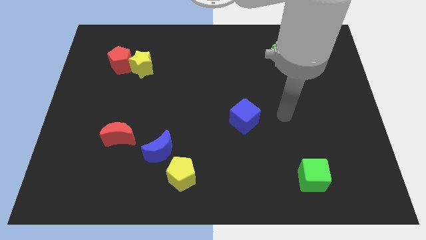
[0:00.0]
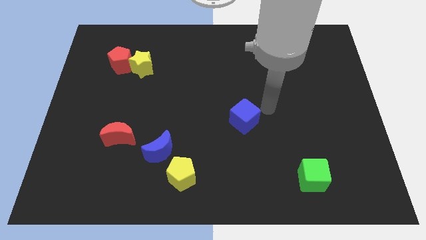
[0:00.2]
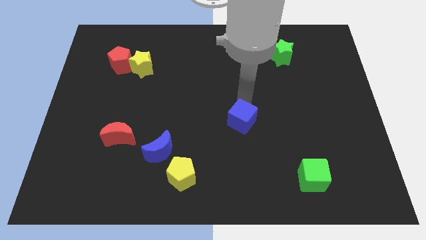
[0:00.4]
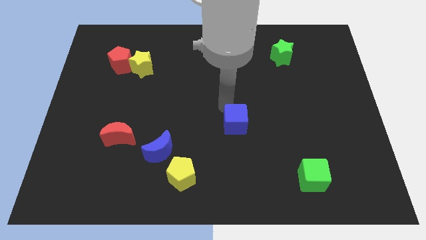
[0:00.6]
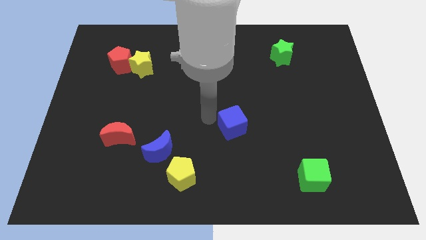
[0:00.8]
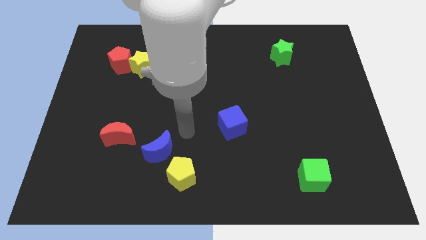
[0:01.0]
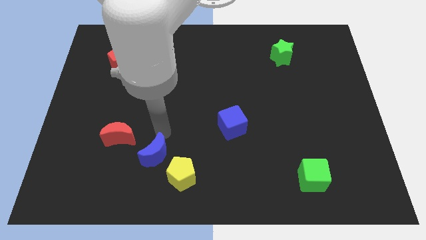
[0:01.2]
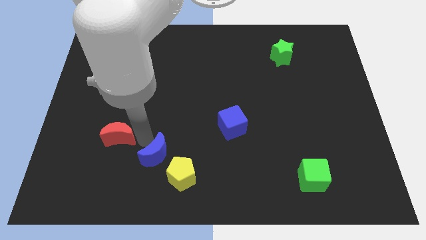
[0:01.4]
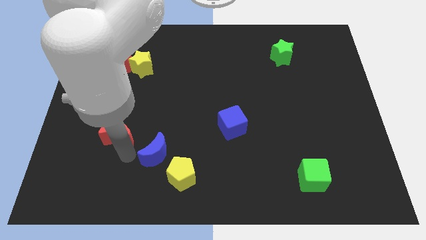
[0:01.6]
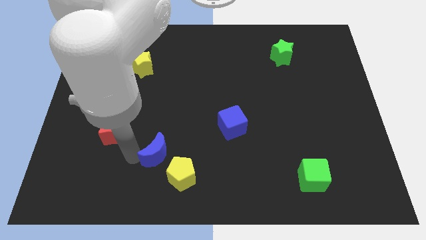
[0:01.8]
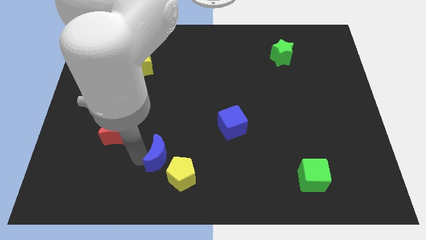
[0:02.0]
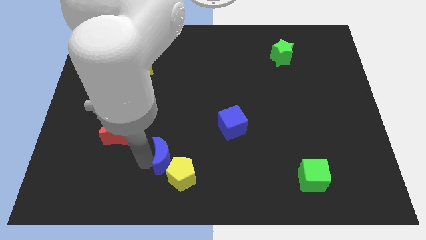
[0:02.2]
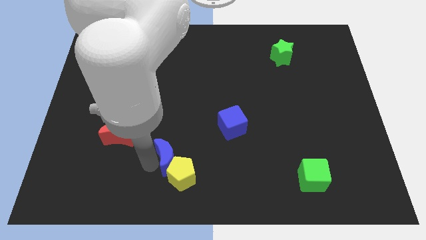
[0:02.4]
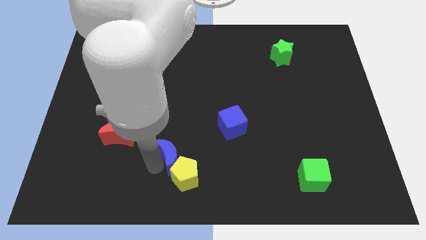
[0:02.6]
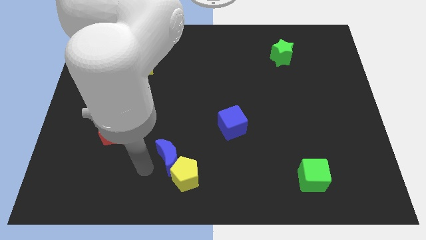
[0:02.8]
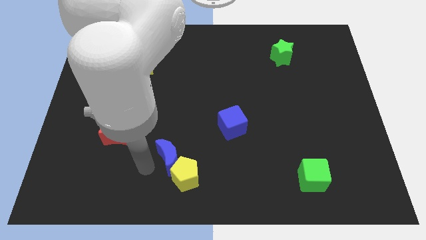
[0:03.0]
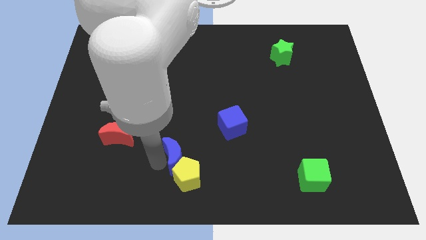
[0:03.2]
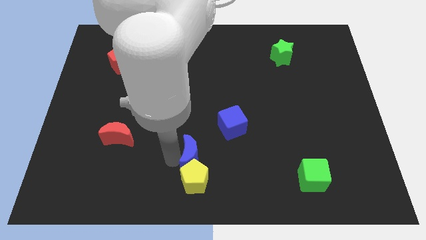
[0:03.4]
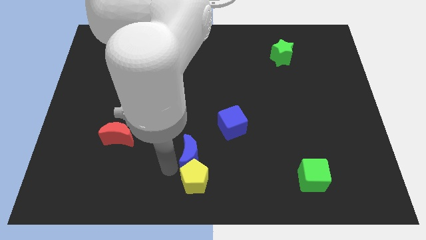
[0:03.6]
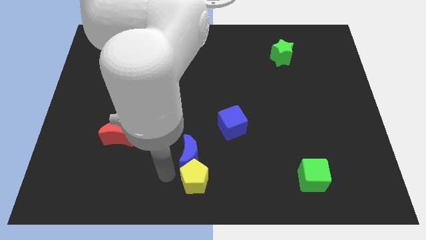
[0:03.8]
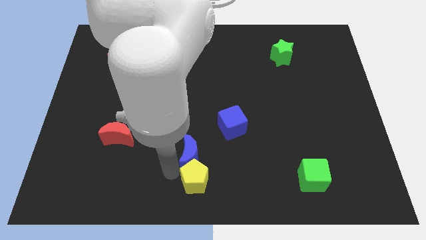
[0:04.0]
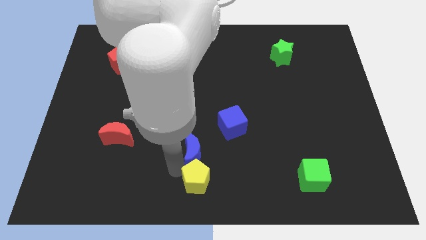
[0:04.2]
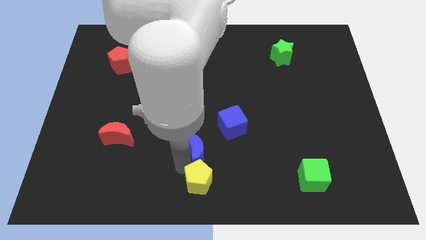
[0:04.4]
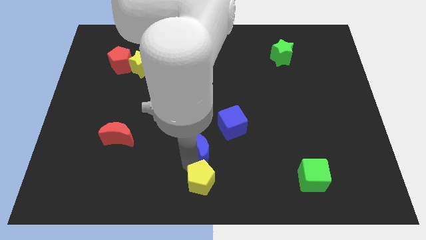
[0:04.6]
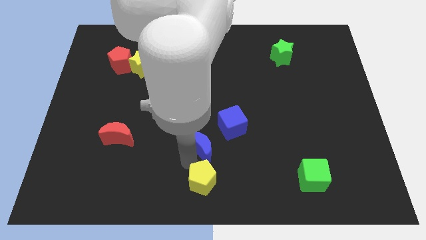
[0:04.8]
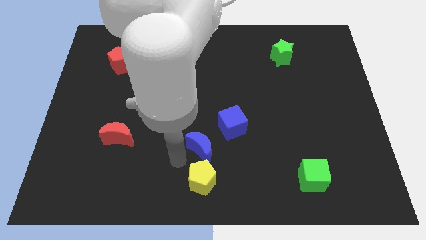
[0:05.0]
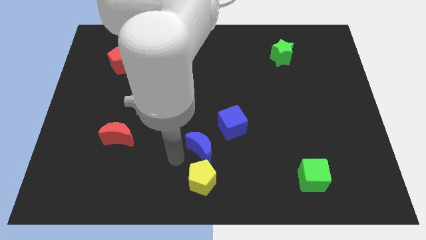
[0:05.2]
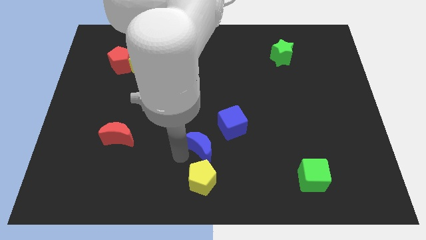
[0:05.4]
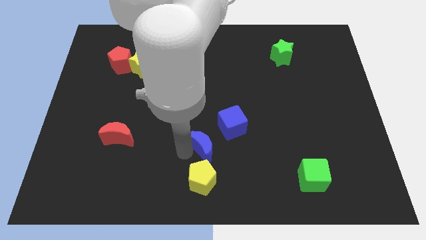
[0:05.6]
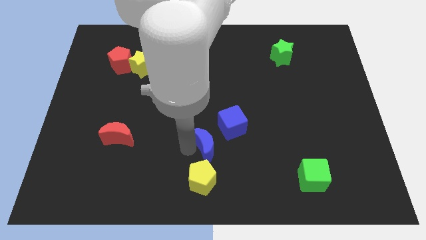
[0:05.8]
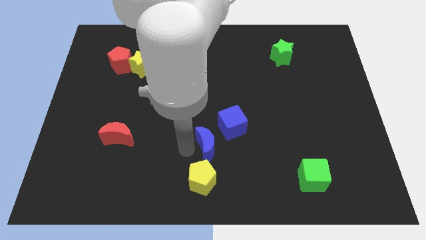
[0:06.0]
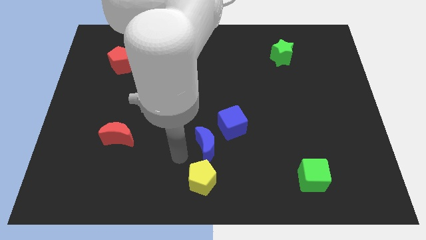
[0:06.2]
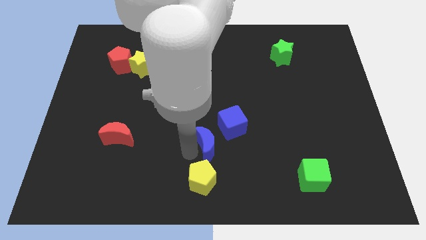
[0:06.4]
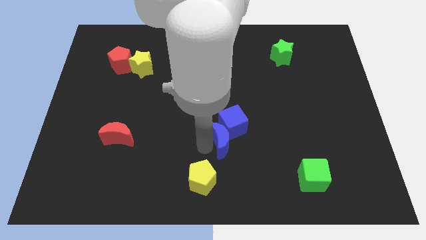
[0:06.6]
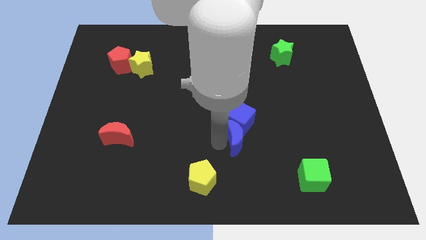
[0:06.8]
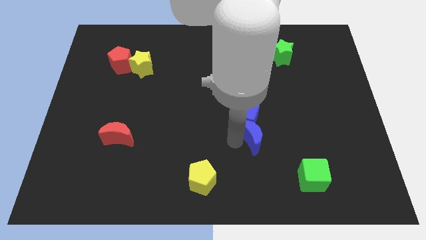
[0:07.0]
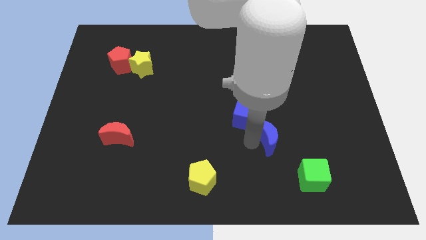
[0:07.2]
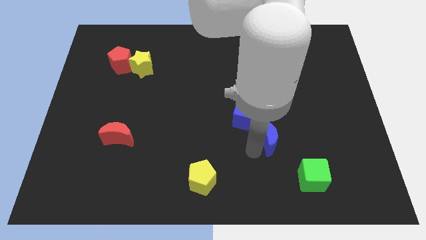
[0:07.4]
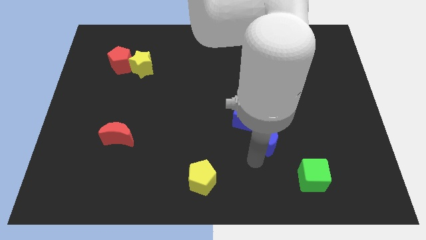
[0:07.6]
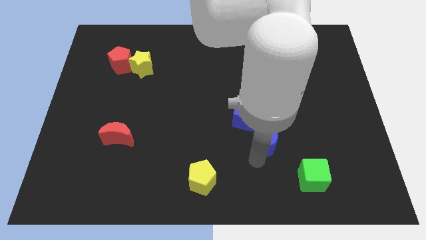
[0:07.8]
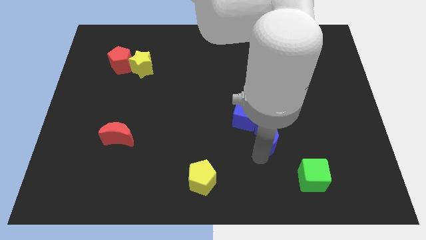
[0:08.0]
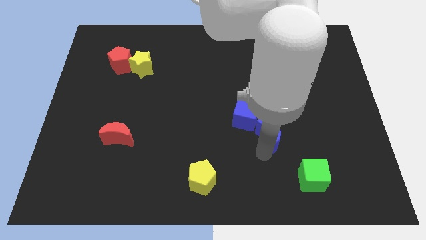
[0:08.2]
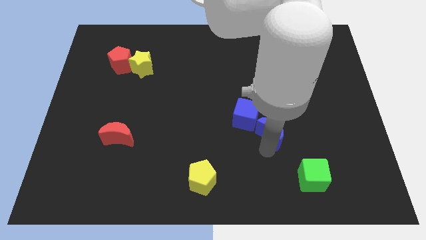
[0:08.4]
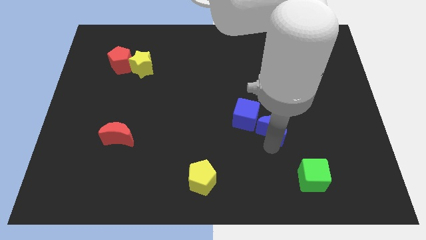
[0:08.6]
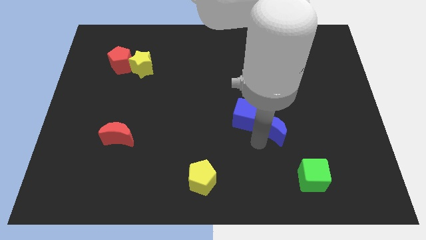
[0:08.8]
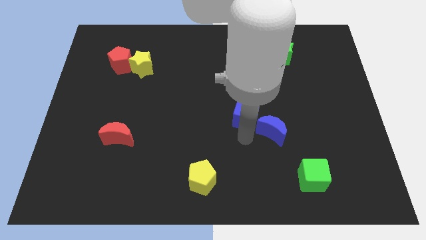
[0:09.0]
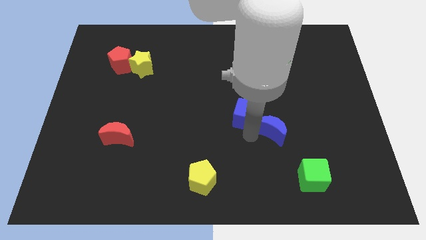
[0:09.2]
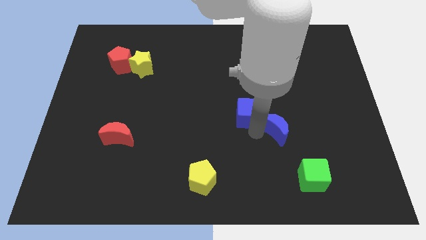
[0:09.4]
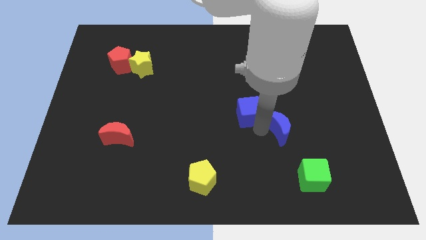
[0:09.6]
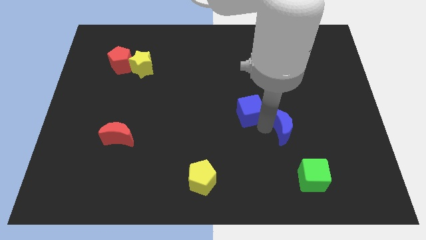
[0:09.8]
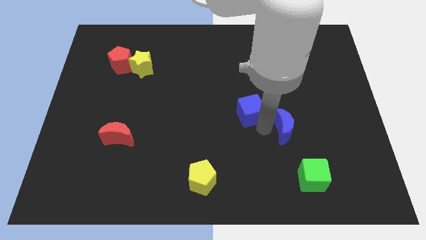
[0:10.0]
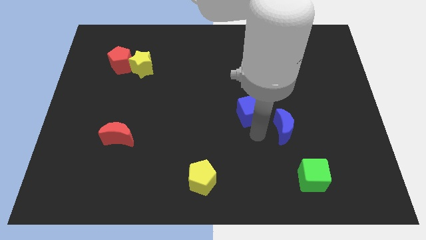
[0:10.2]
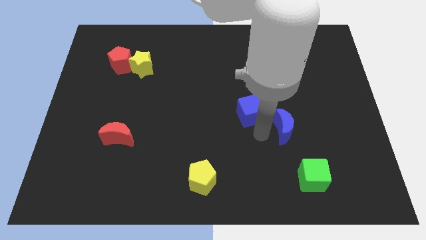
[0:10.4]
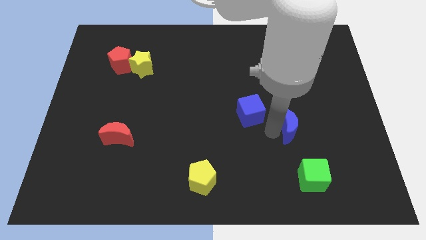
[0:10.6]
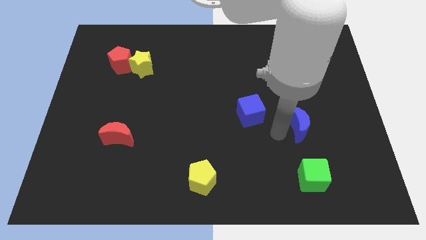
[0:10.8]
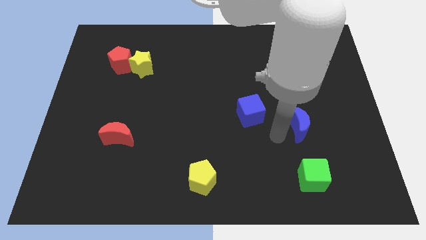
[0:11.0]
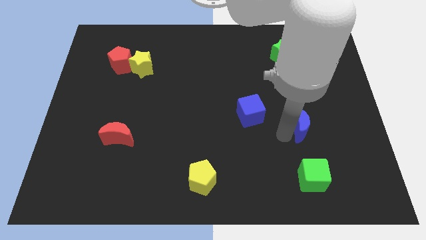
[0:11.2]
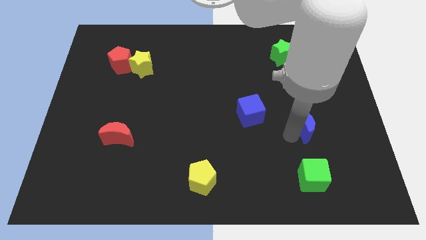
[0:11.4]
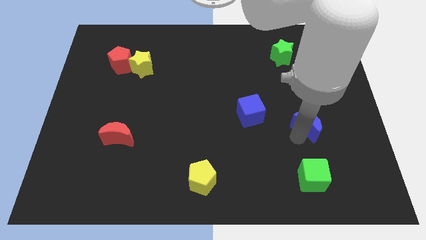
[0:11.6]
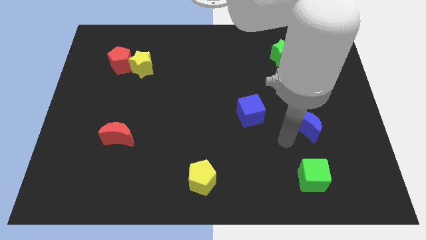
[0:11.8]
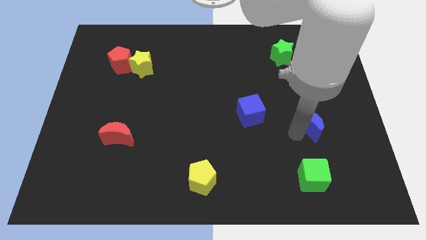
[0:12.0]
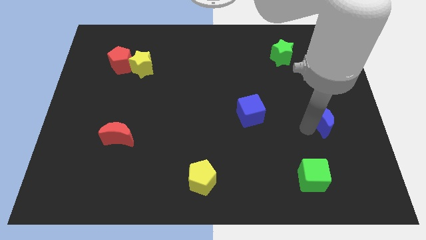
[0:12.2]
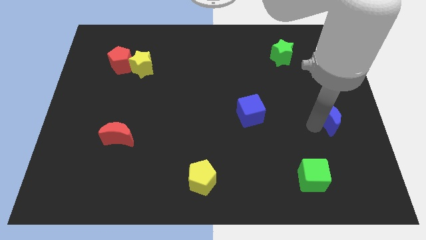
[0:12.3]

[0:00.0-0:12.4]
move the blue moon to the right side of the board

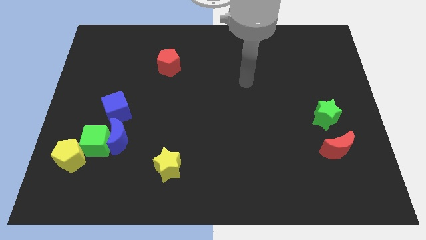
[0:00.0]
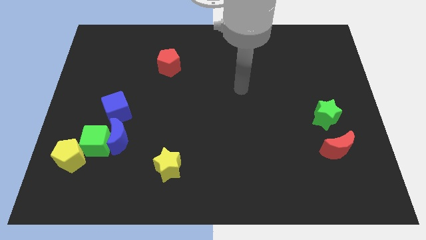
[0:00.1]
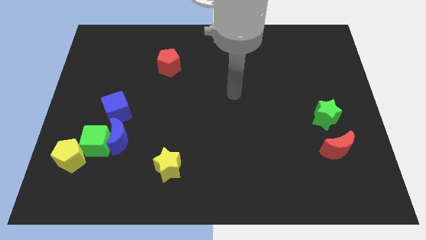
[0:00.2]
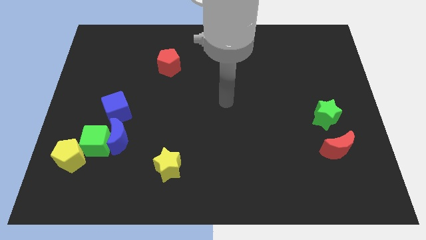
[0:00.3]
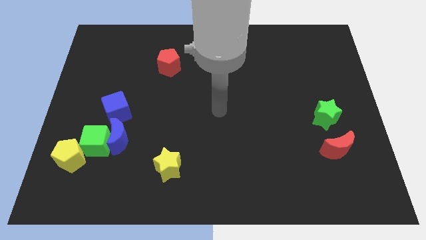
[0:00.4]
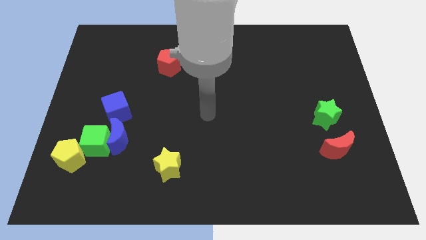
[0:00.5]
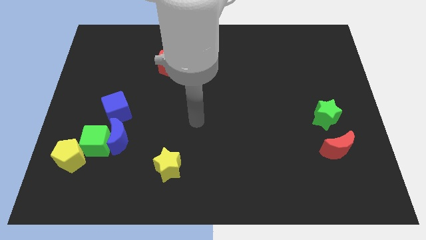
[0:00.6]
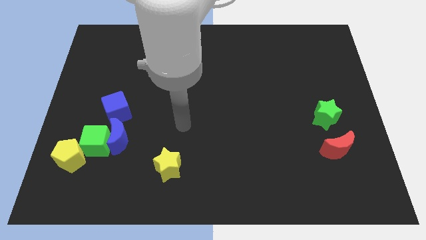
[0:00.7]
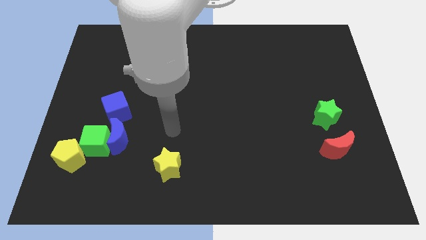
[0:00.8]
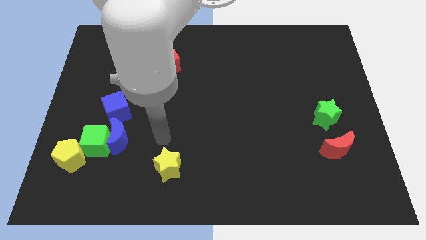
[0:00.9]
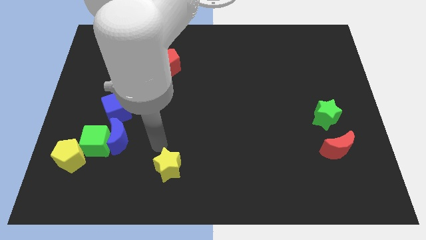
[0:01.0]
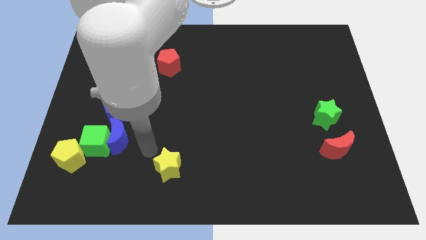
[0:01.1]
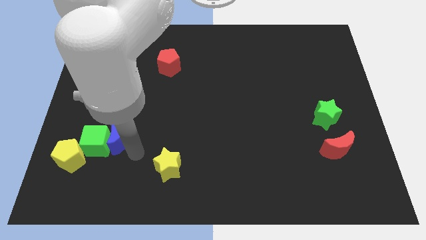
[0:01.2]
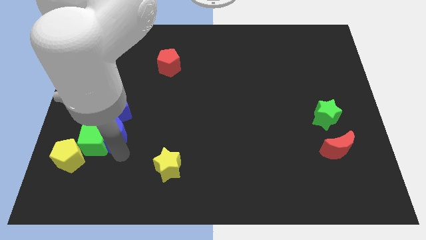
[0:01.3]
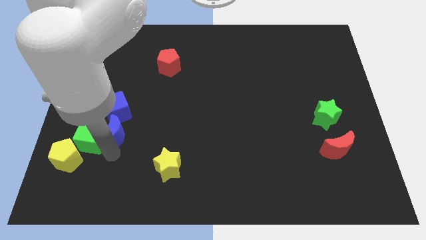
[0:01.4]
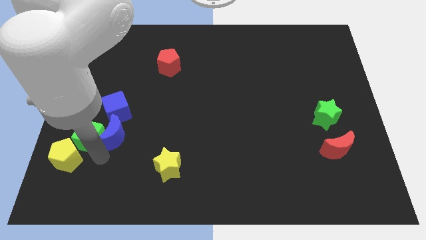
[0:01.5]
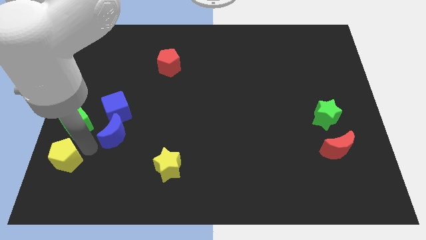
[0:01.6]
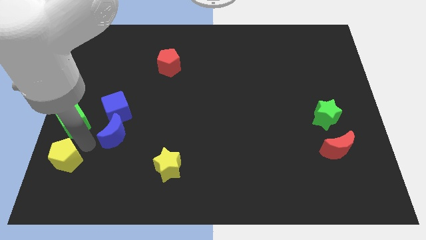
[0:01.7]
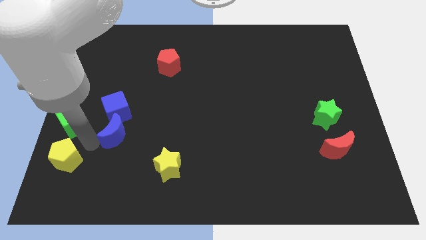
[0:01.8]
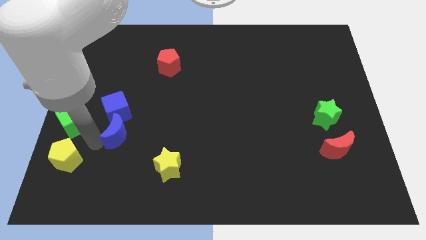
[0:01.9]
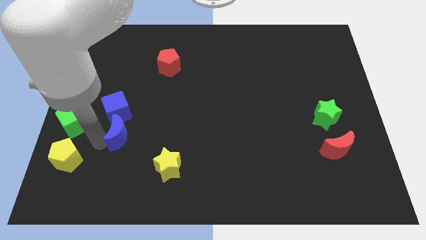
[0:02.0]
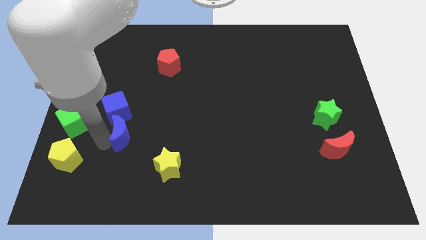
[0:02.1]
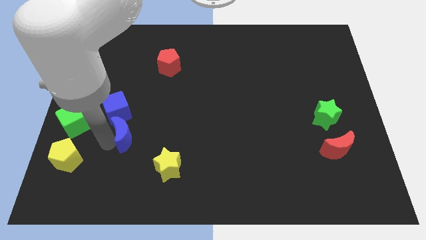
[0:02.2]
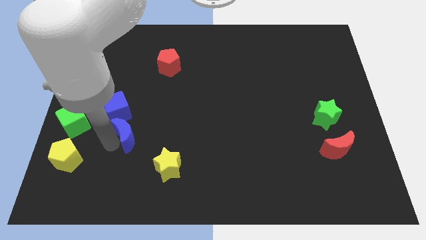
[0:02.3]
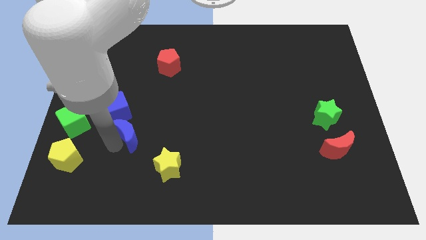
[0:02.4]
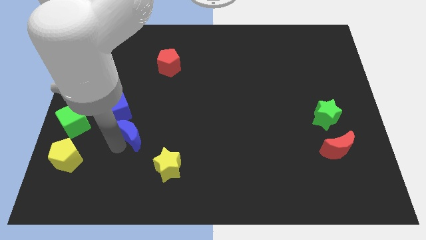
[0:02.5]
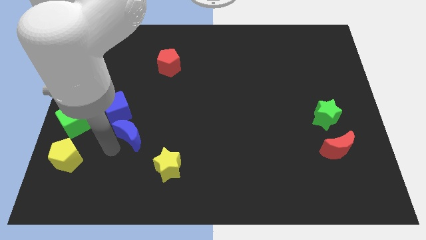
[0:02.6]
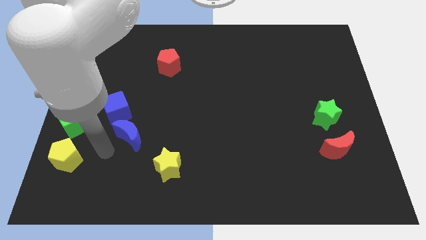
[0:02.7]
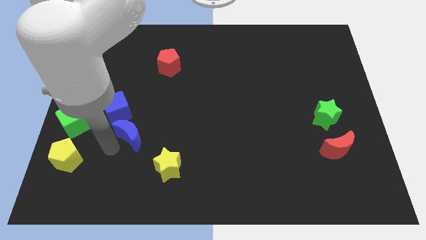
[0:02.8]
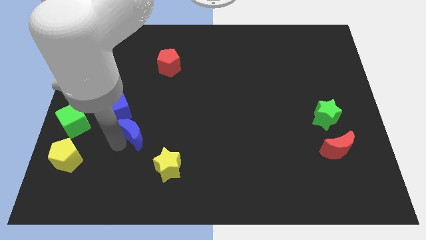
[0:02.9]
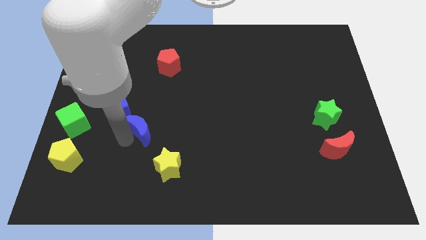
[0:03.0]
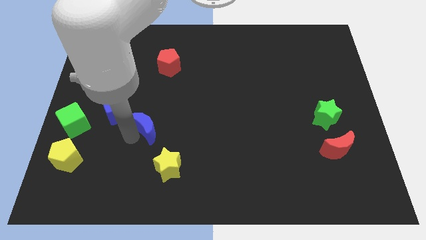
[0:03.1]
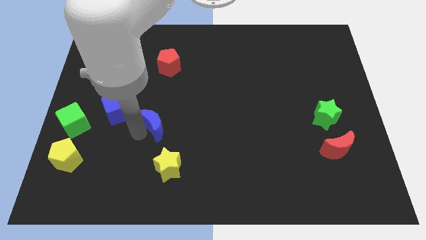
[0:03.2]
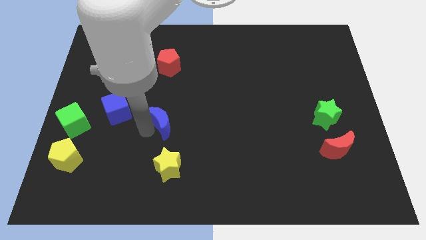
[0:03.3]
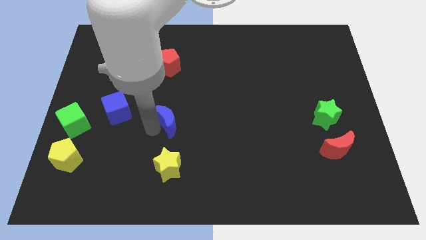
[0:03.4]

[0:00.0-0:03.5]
put the blue moon to the center
